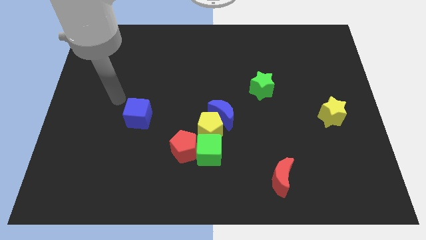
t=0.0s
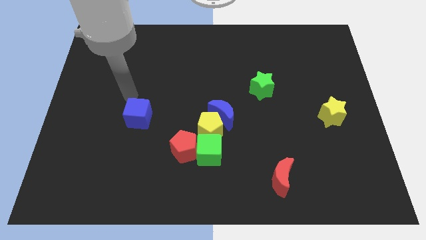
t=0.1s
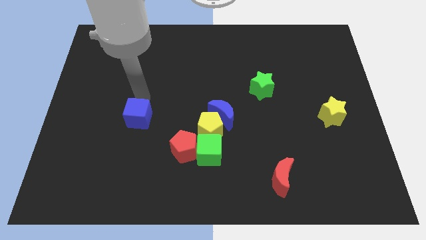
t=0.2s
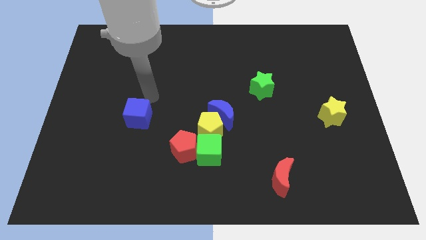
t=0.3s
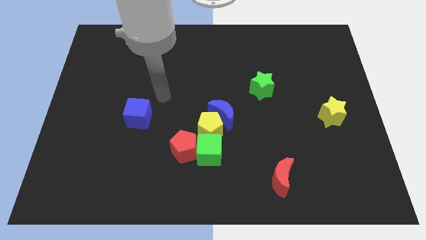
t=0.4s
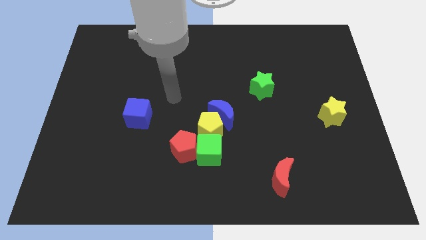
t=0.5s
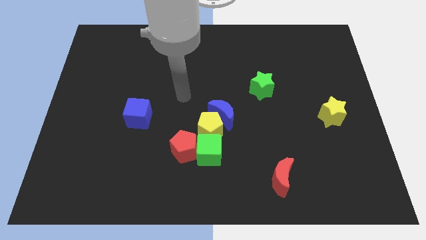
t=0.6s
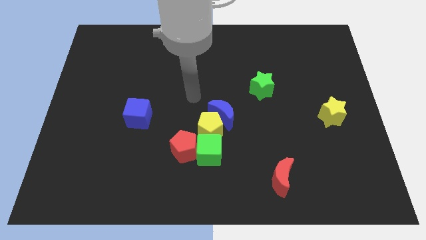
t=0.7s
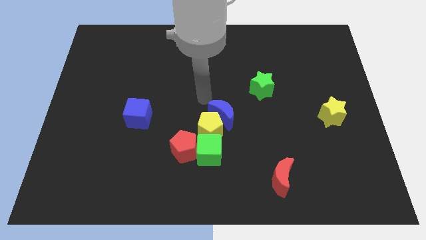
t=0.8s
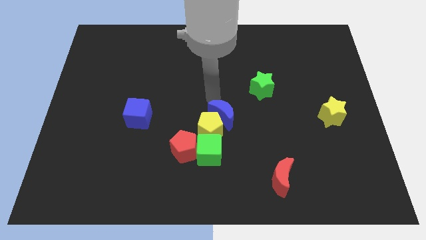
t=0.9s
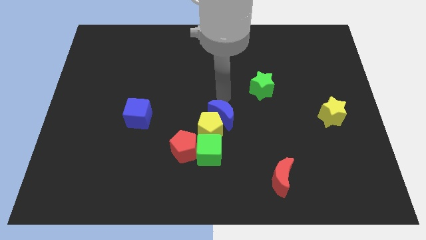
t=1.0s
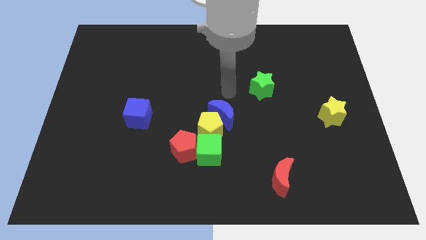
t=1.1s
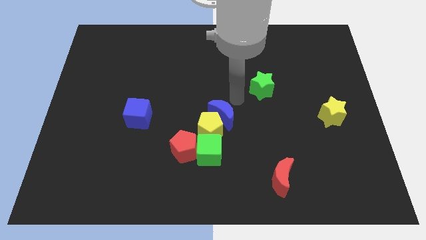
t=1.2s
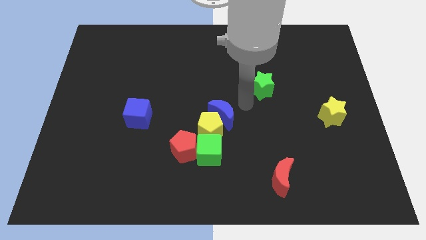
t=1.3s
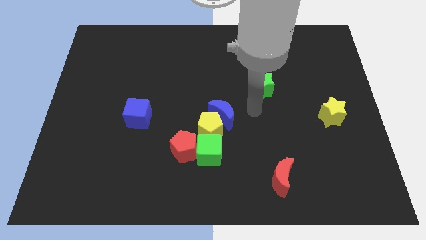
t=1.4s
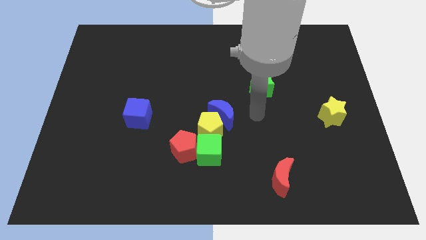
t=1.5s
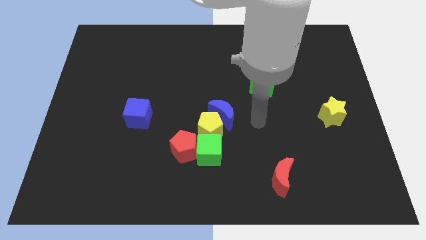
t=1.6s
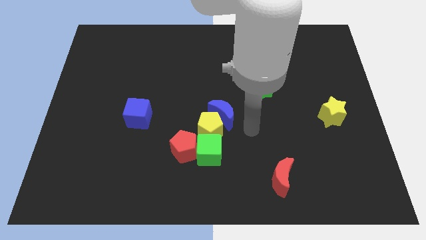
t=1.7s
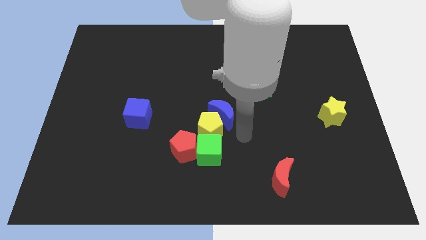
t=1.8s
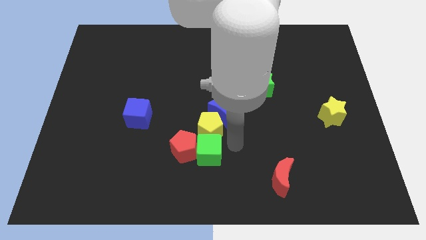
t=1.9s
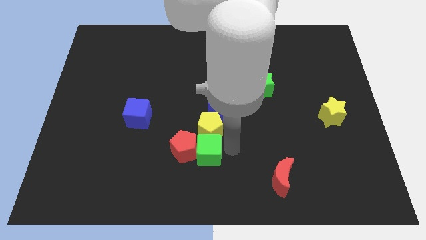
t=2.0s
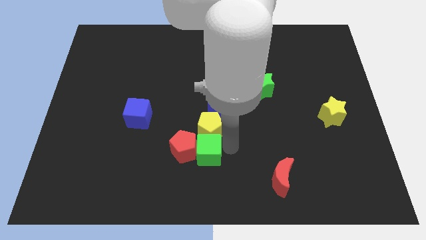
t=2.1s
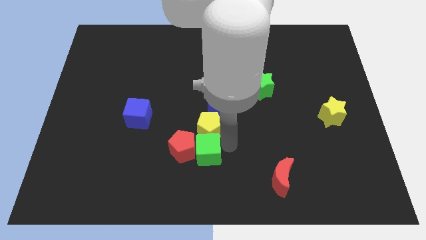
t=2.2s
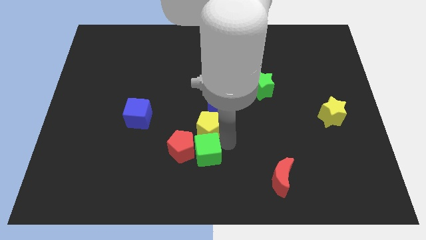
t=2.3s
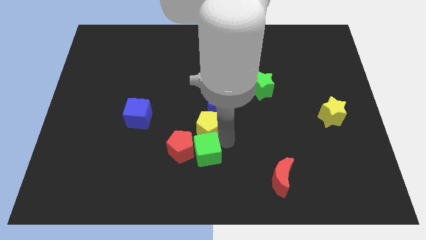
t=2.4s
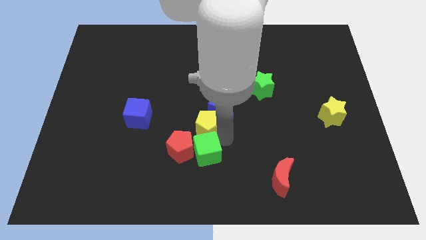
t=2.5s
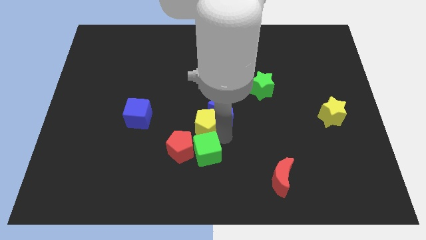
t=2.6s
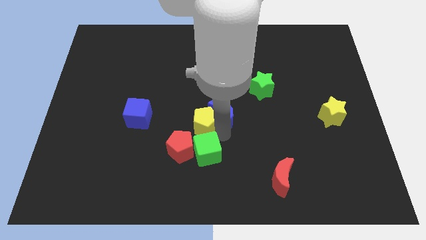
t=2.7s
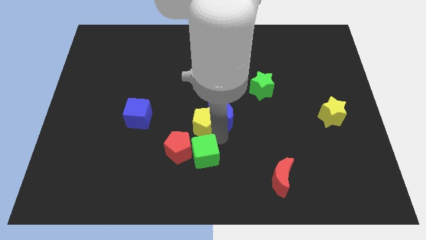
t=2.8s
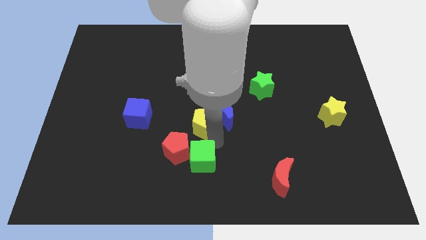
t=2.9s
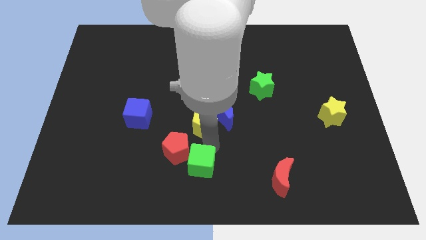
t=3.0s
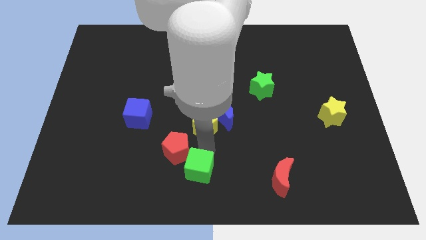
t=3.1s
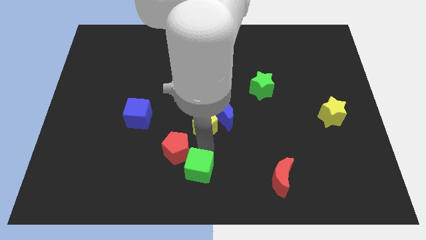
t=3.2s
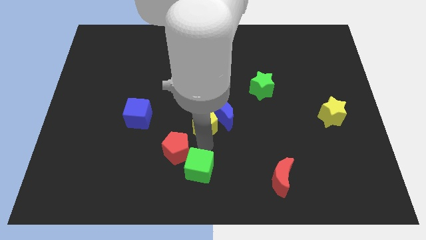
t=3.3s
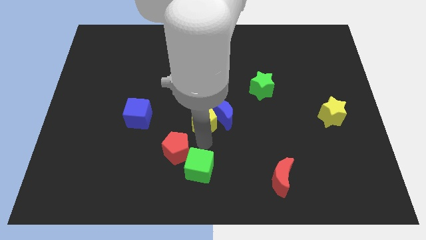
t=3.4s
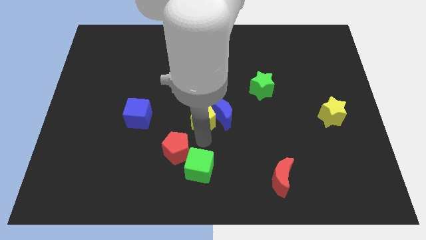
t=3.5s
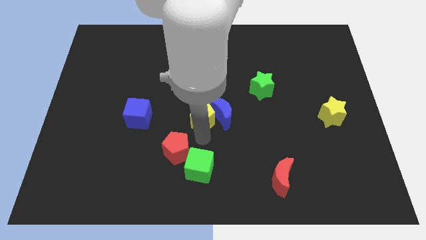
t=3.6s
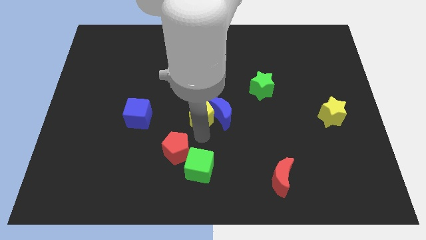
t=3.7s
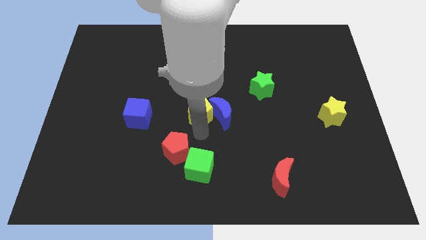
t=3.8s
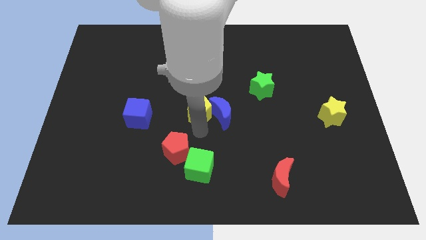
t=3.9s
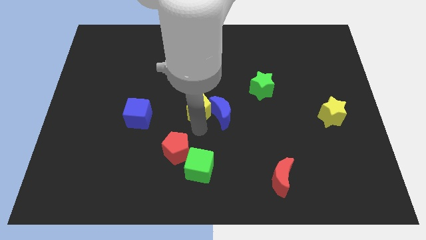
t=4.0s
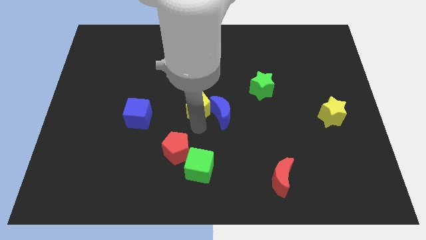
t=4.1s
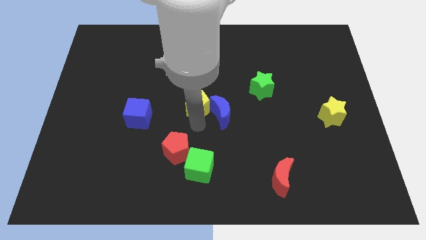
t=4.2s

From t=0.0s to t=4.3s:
move the yellow pentagon away from the group of blocks

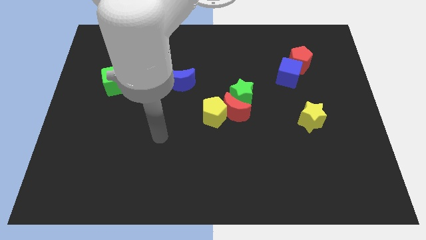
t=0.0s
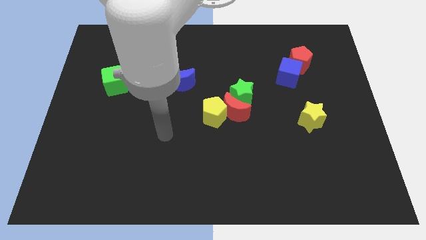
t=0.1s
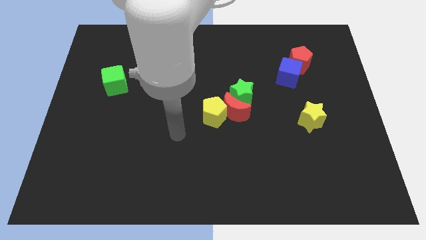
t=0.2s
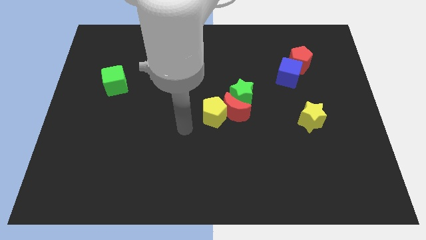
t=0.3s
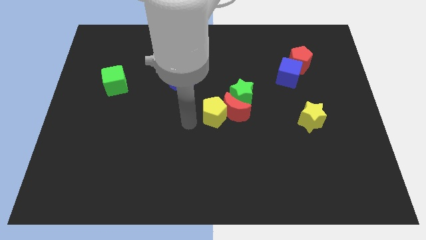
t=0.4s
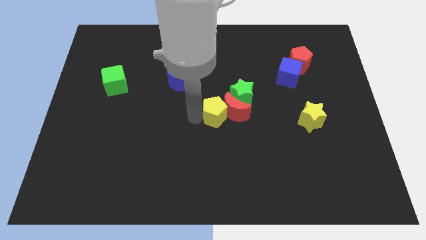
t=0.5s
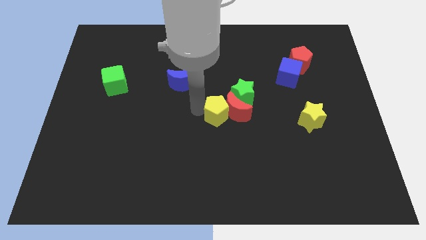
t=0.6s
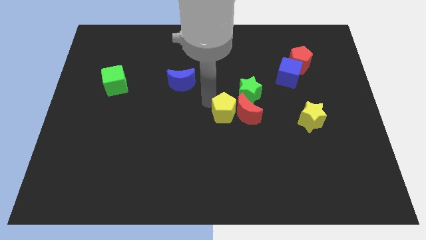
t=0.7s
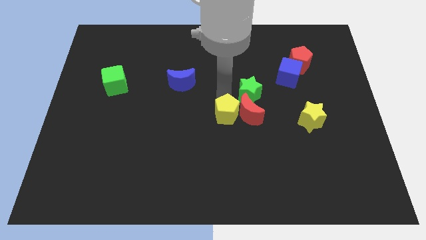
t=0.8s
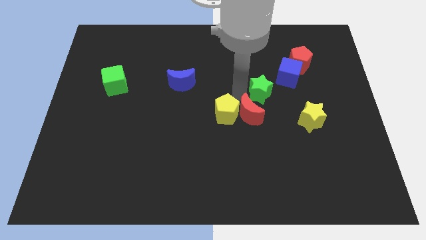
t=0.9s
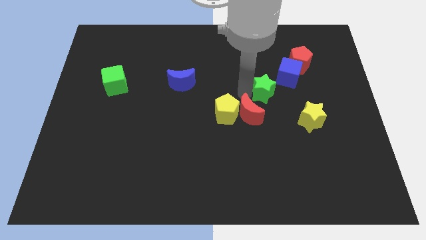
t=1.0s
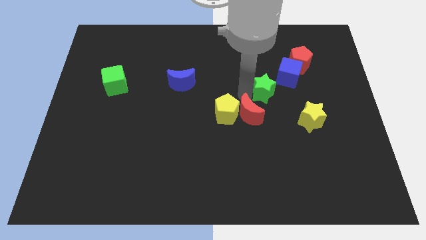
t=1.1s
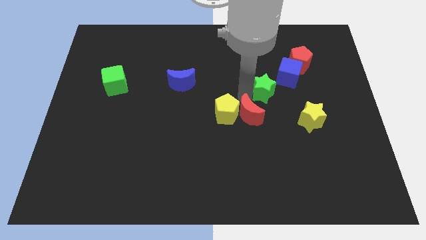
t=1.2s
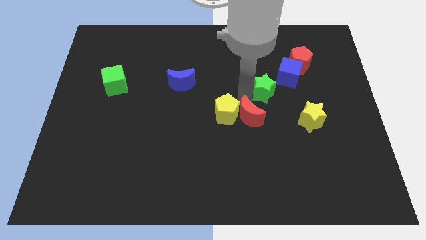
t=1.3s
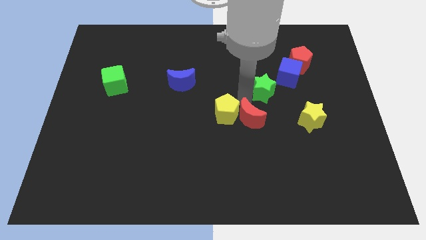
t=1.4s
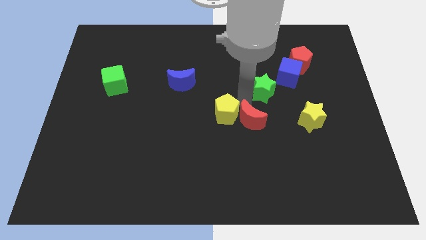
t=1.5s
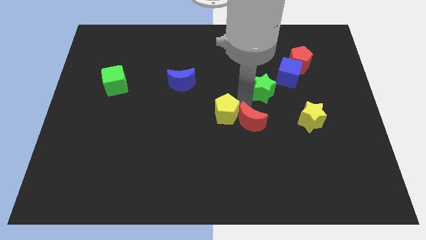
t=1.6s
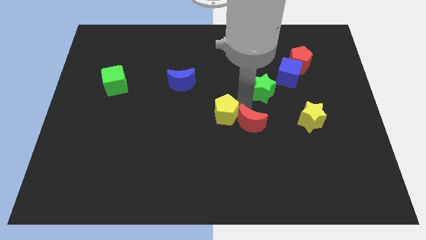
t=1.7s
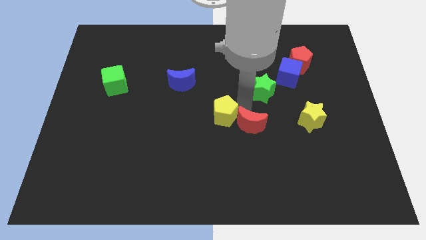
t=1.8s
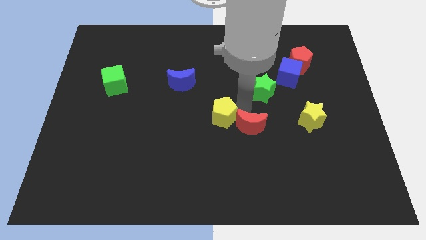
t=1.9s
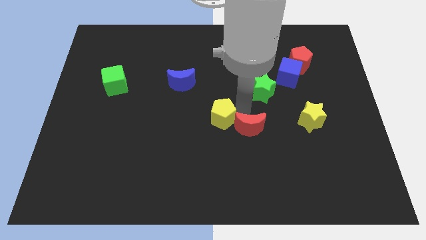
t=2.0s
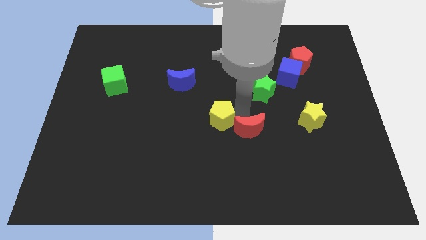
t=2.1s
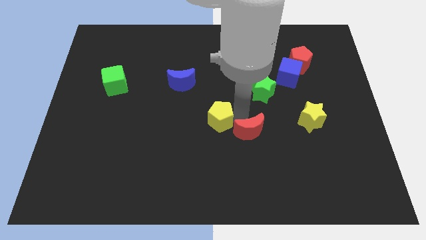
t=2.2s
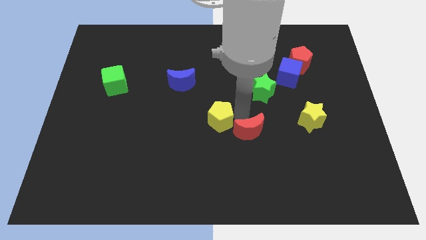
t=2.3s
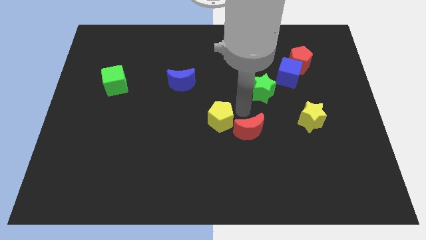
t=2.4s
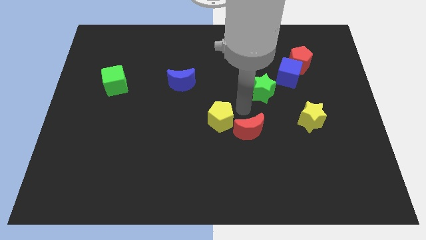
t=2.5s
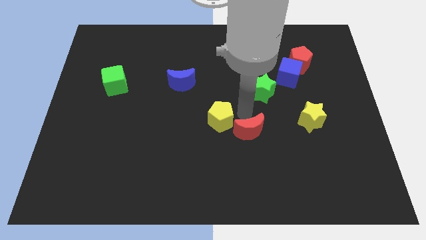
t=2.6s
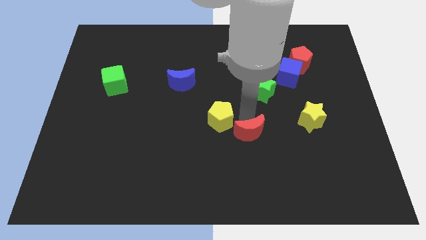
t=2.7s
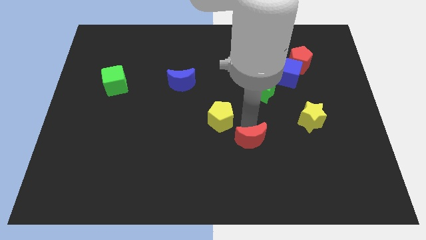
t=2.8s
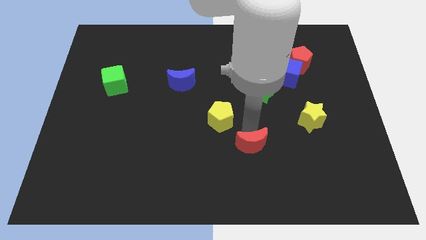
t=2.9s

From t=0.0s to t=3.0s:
pull the red moon apart from the yellow pentagon and green star

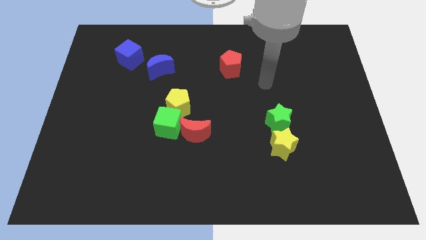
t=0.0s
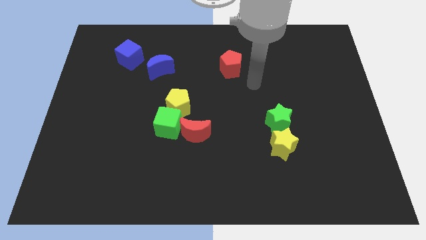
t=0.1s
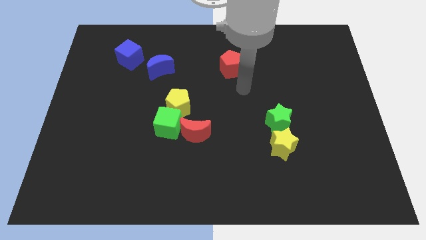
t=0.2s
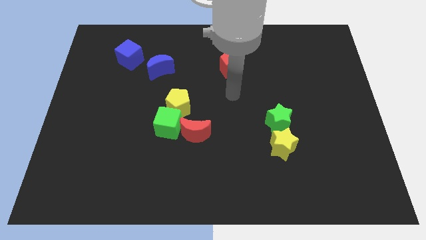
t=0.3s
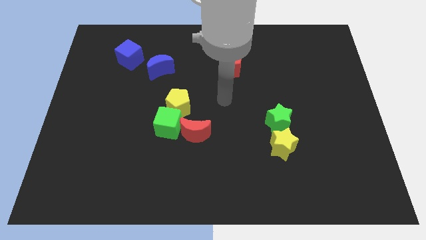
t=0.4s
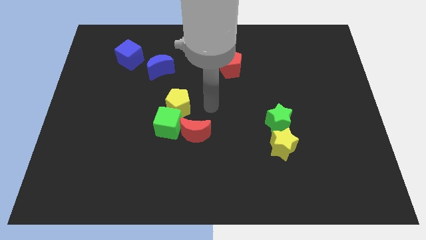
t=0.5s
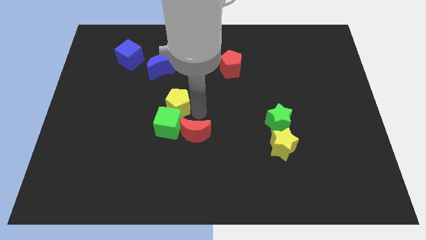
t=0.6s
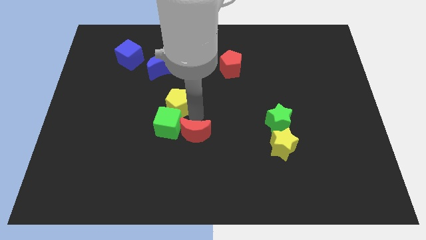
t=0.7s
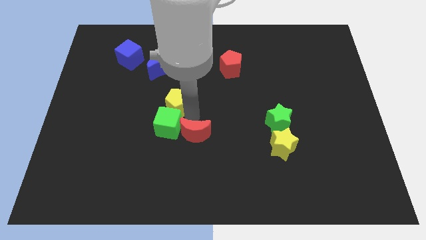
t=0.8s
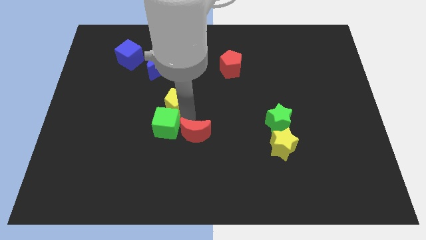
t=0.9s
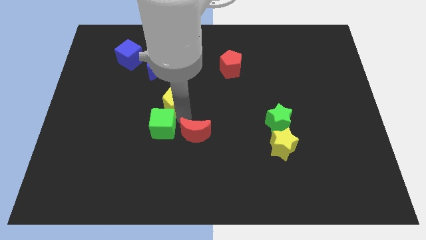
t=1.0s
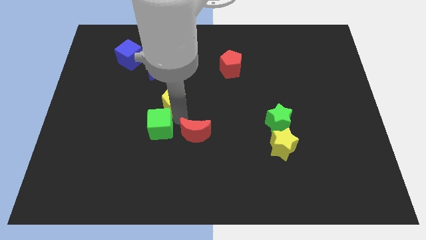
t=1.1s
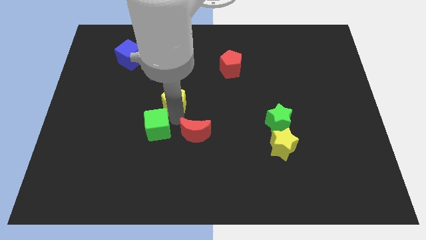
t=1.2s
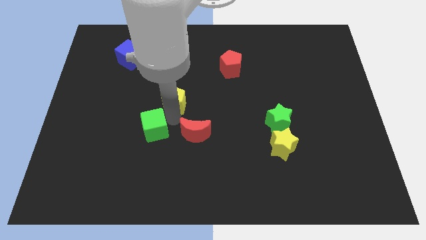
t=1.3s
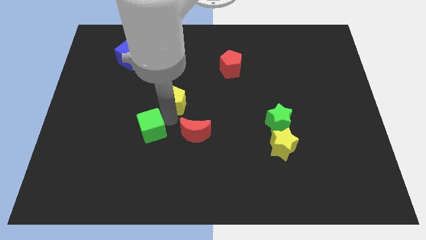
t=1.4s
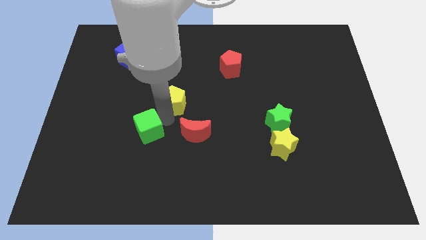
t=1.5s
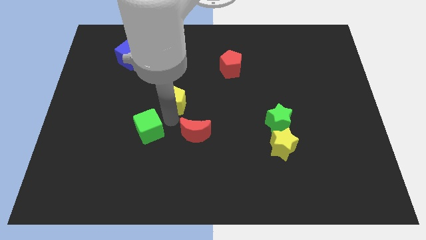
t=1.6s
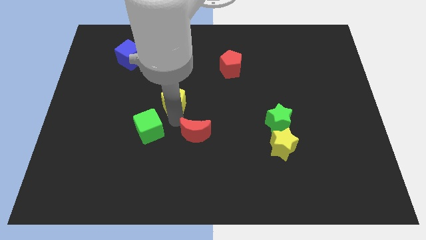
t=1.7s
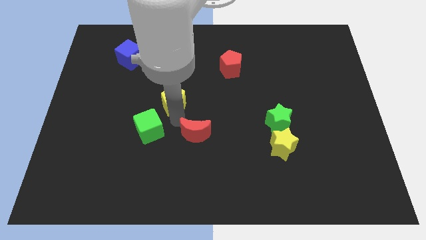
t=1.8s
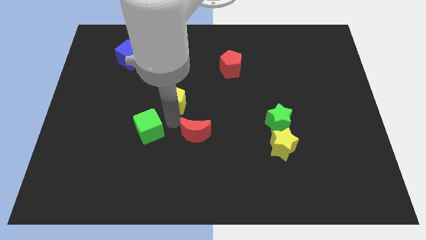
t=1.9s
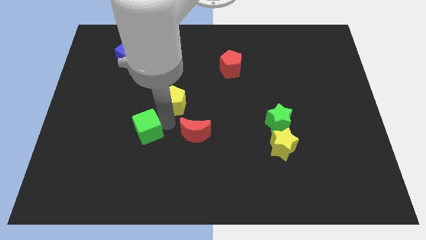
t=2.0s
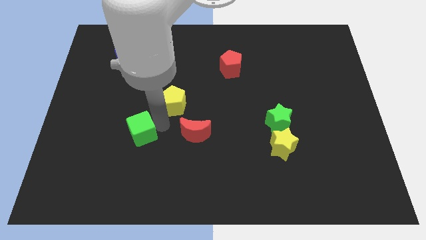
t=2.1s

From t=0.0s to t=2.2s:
separate the green cube from the yellow pentagon and red moon

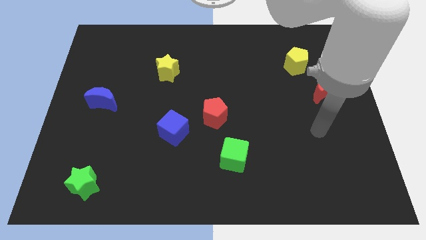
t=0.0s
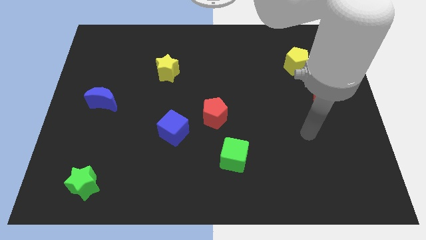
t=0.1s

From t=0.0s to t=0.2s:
pull the red pentagon apart from the blue cube
